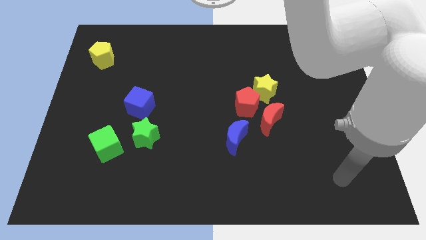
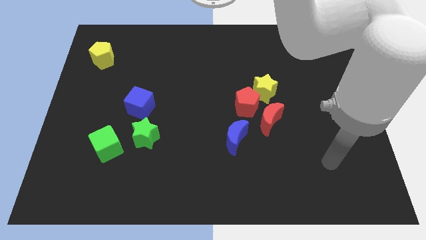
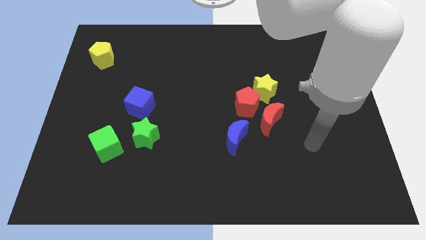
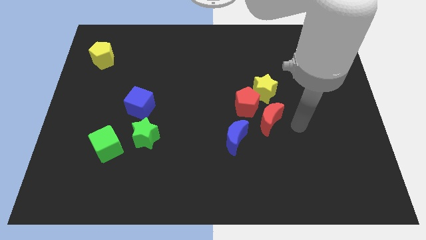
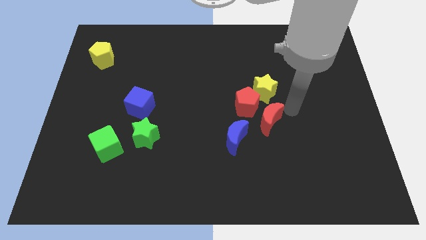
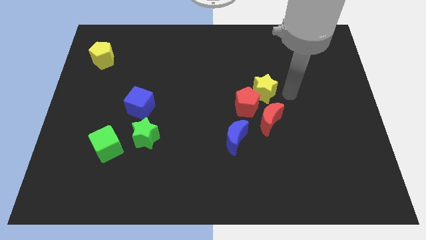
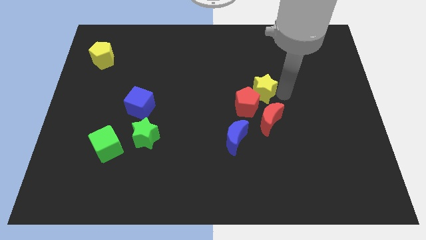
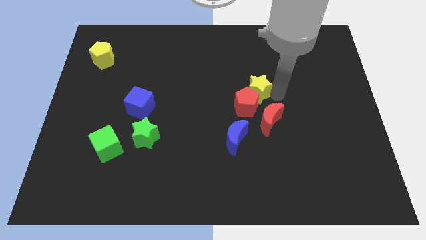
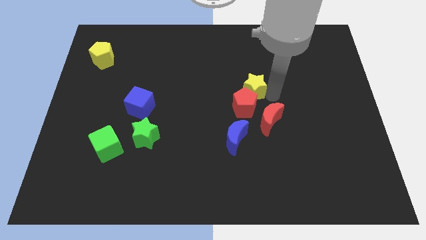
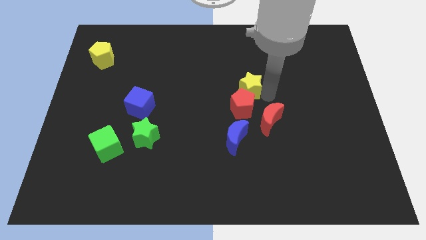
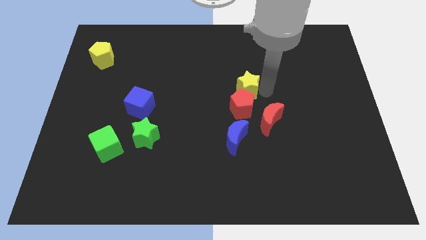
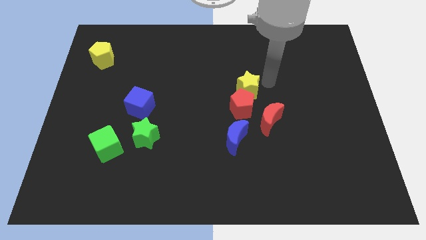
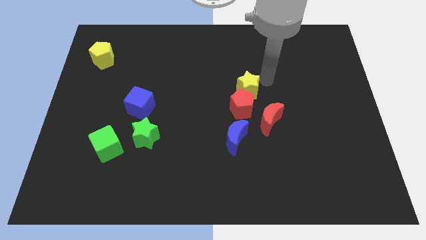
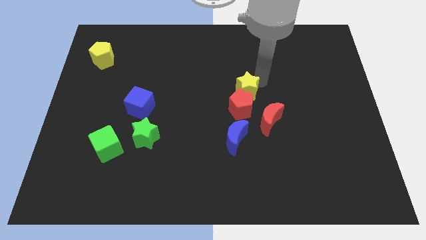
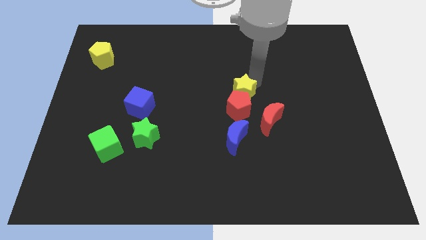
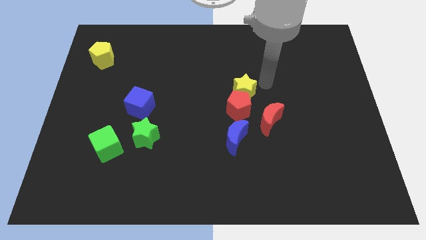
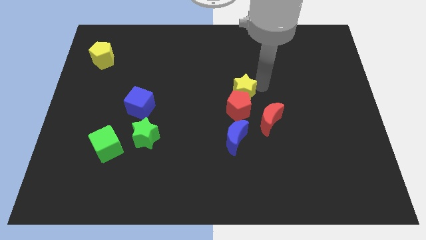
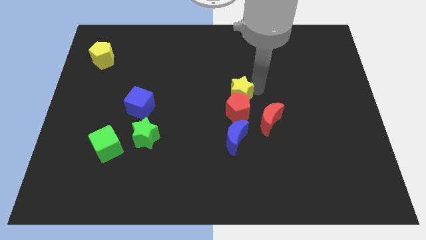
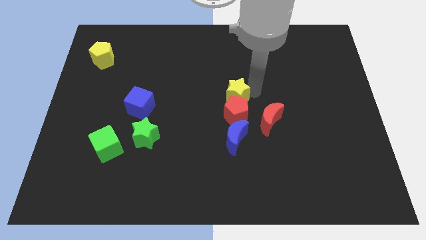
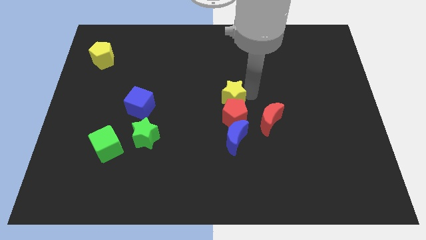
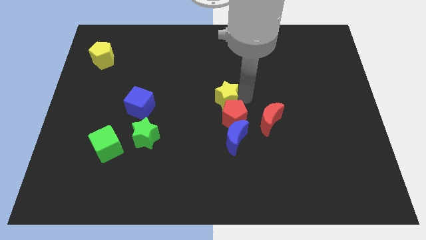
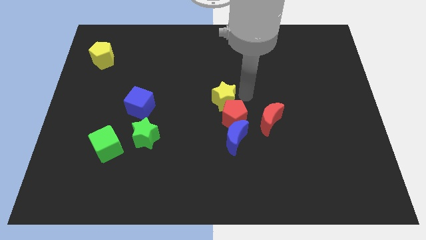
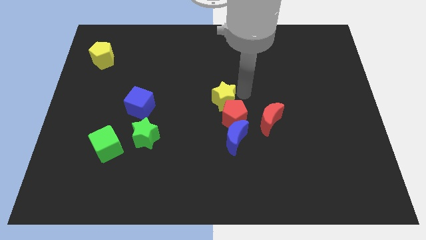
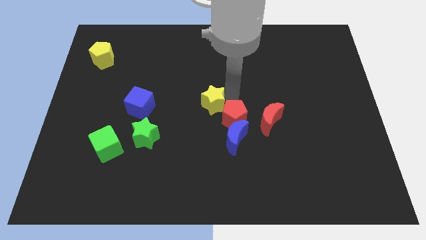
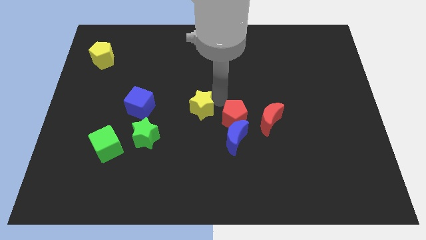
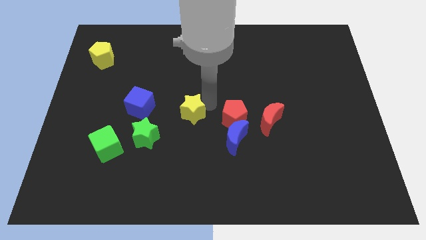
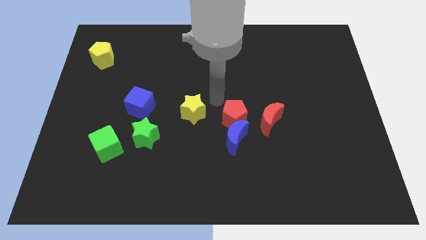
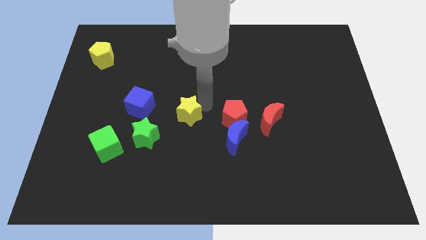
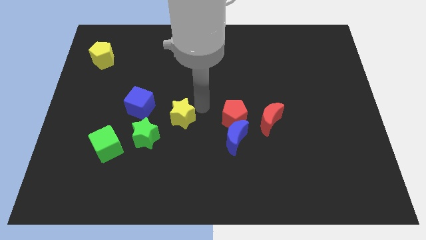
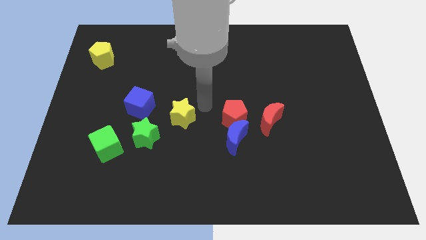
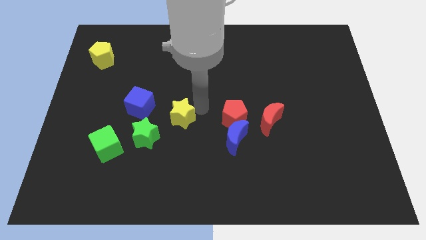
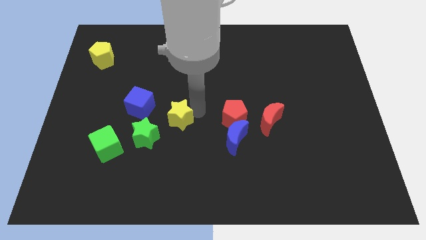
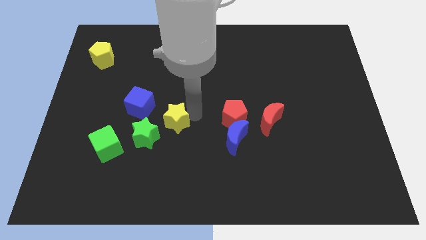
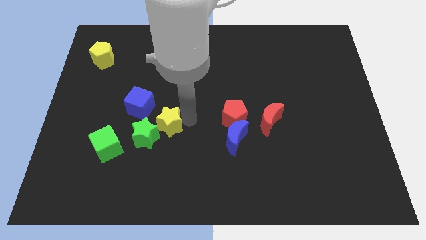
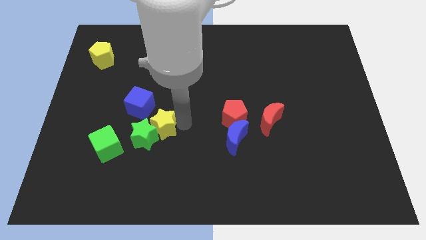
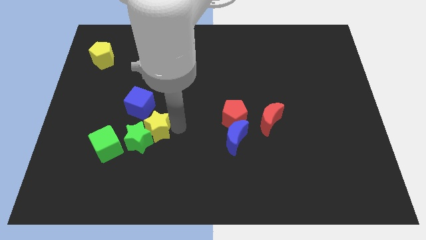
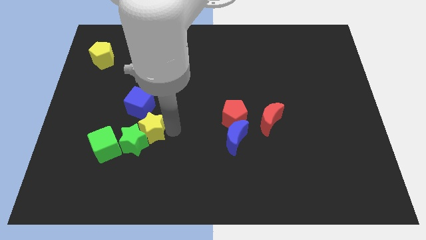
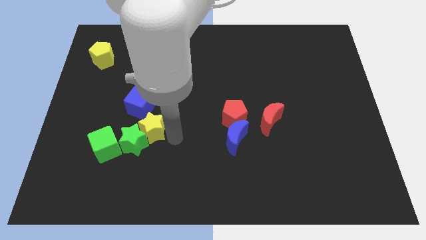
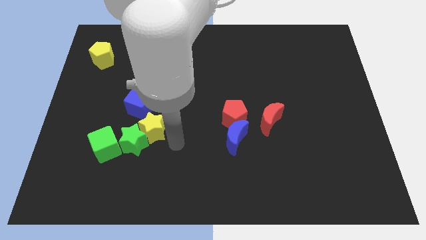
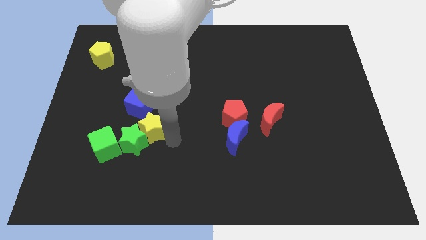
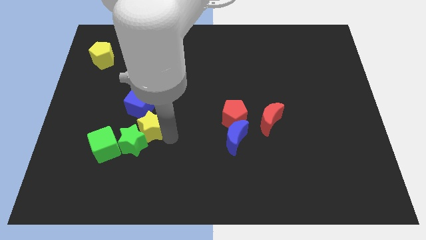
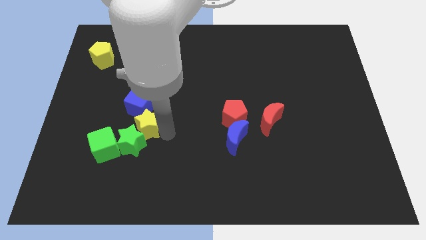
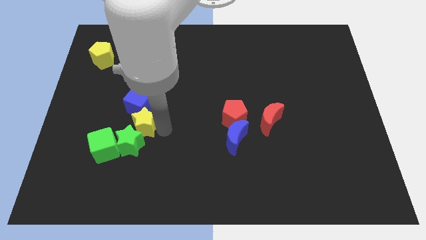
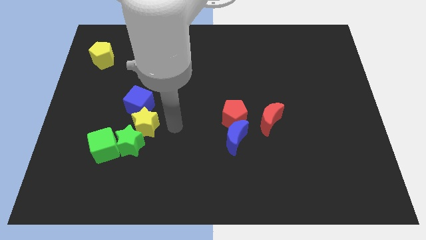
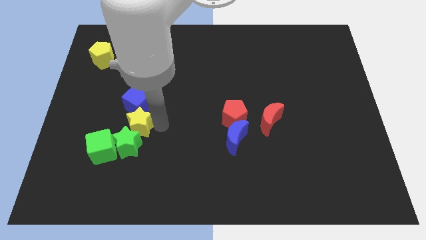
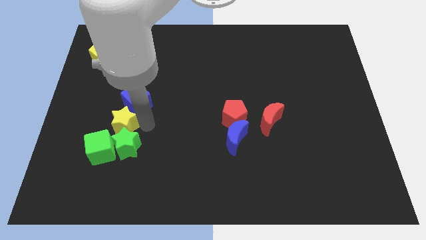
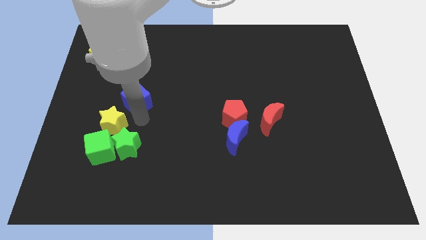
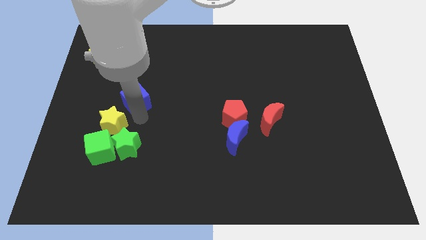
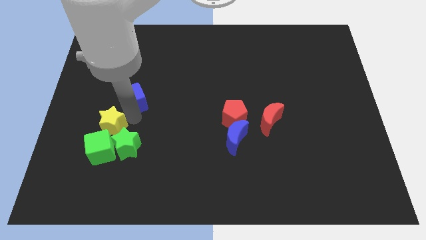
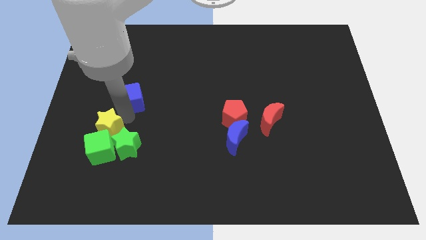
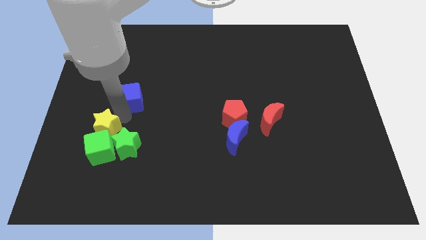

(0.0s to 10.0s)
slide the yellow star to the top left of the green cube

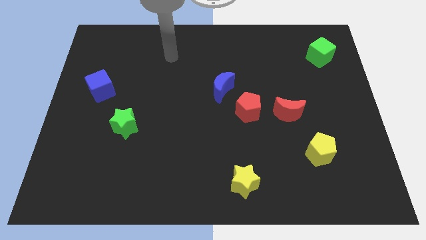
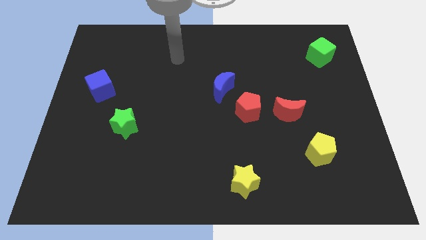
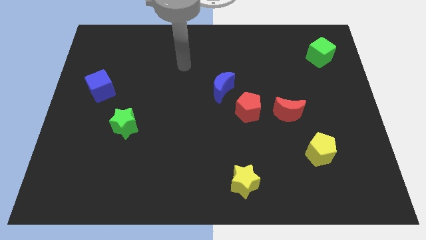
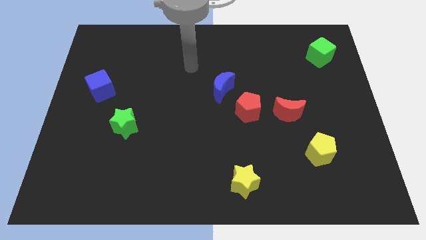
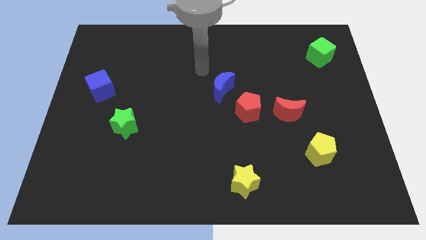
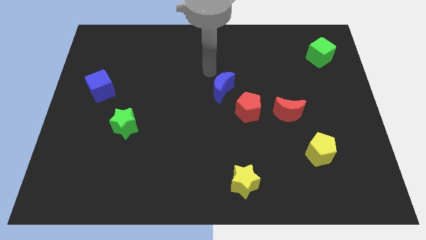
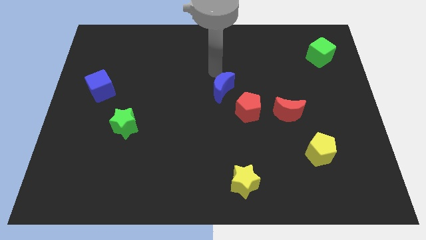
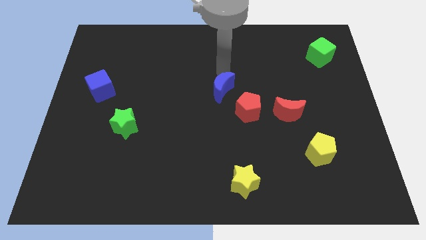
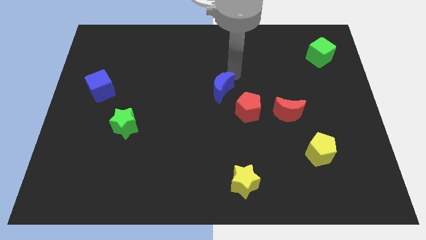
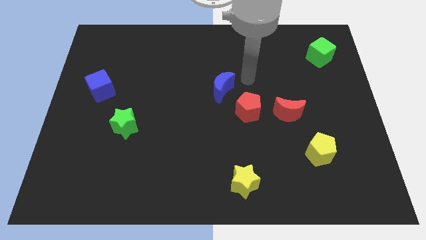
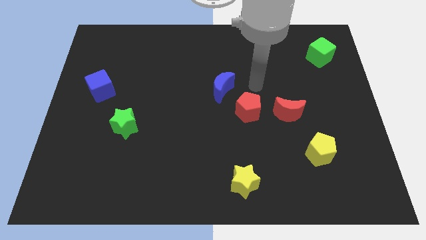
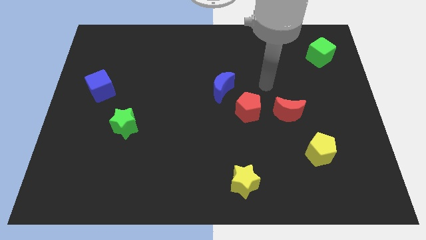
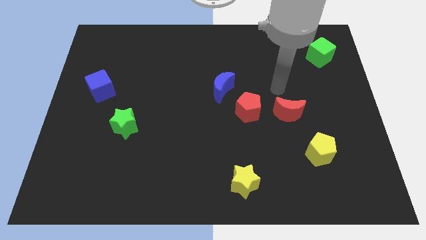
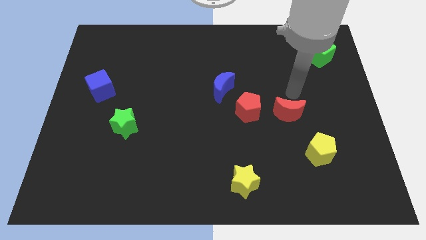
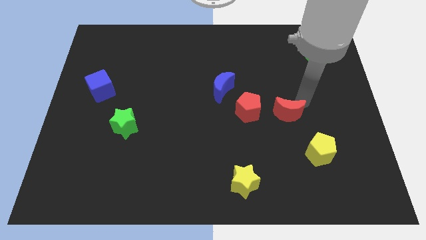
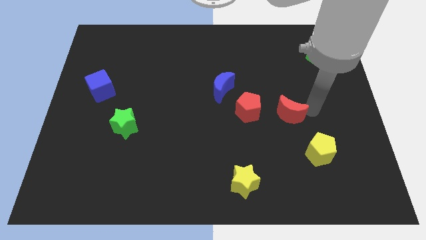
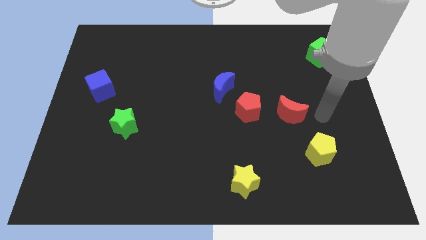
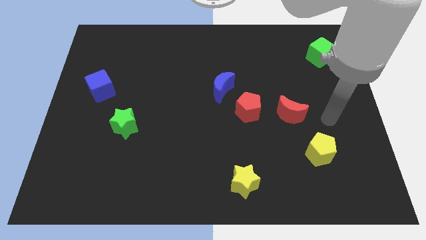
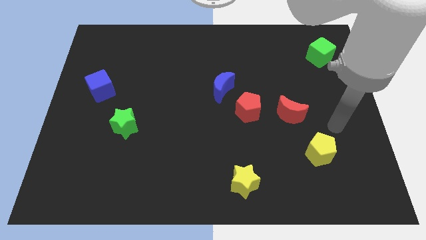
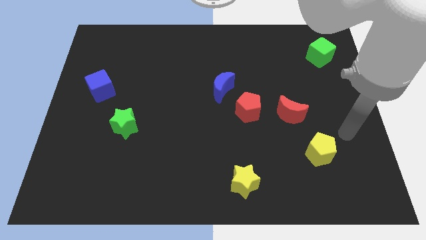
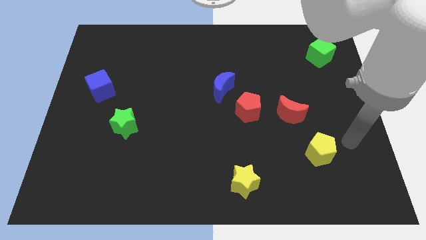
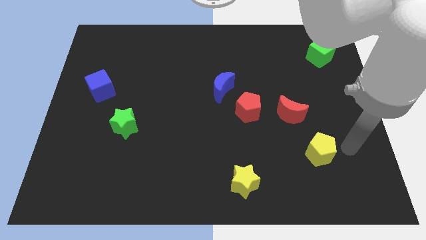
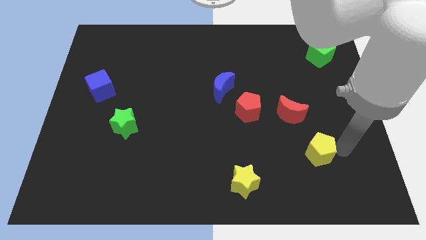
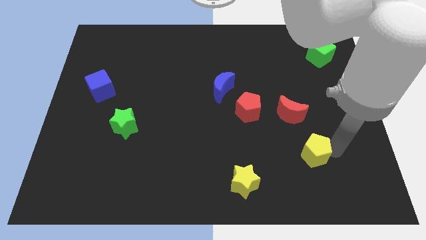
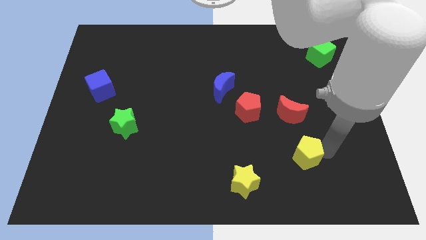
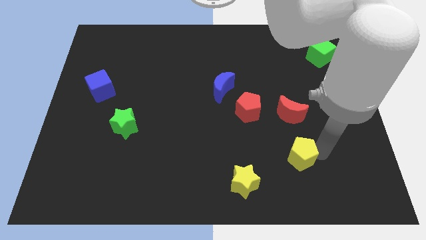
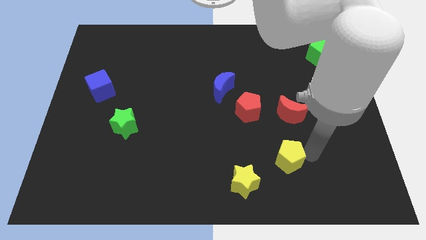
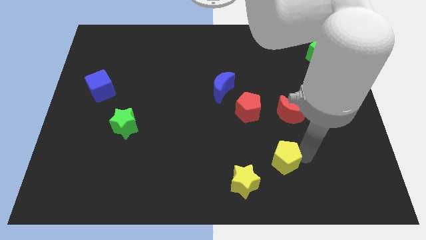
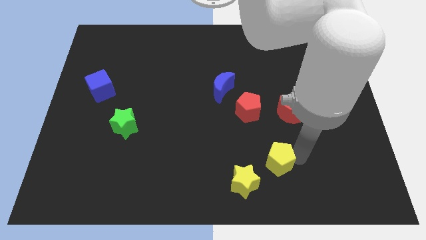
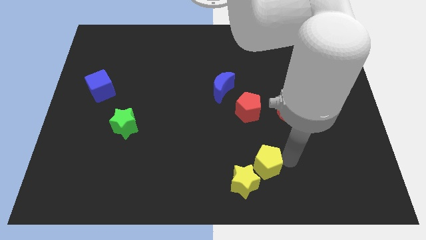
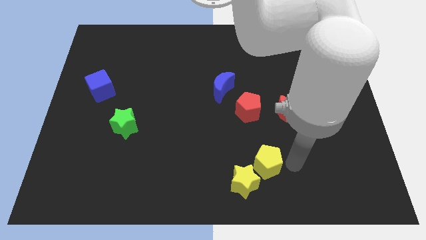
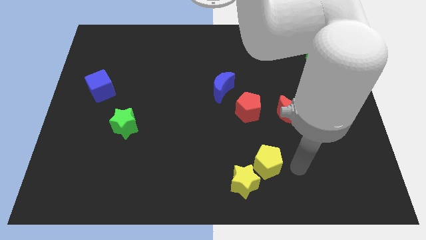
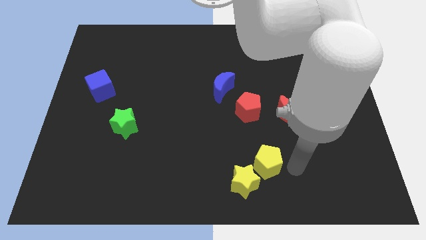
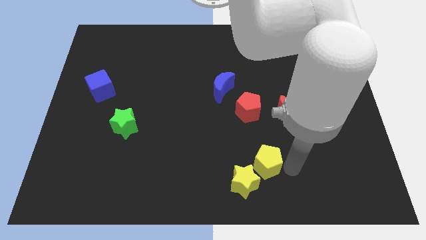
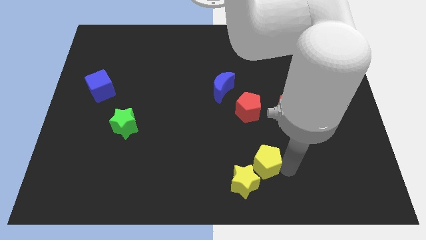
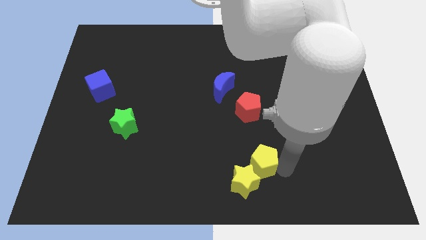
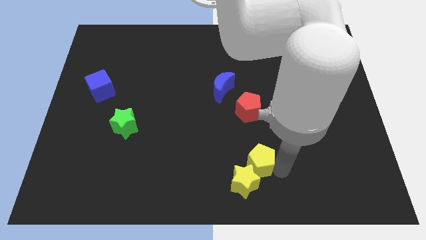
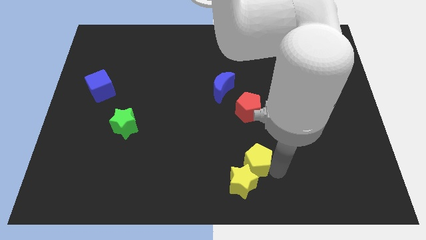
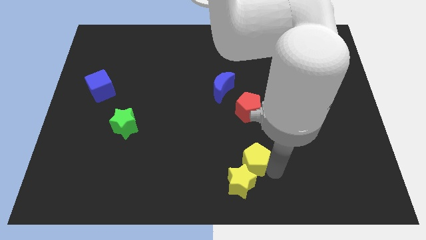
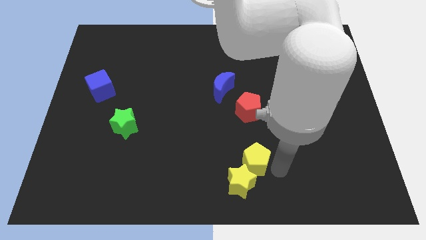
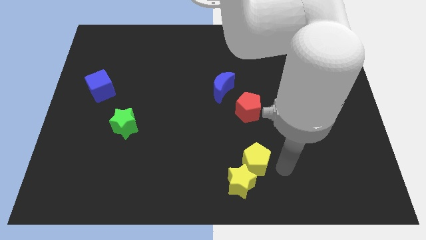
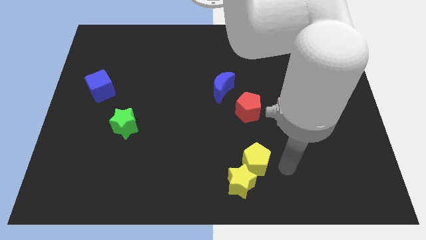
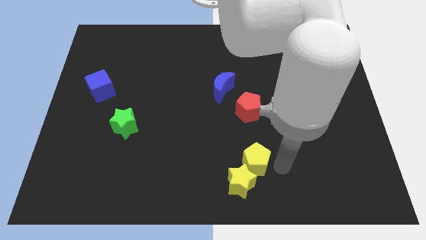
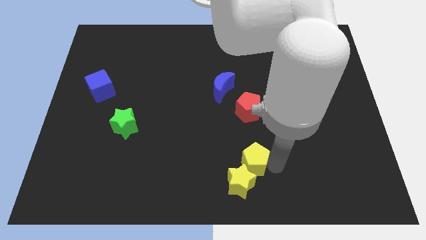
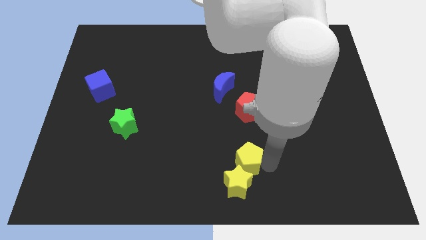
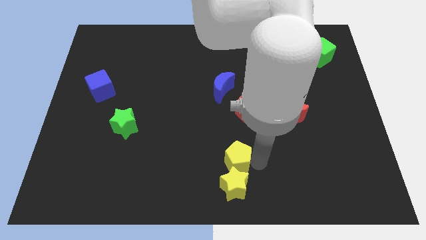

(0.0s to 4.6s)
put the yellow pentagon to the top left of the yellow star
